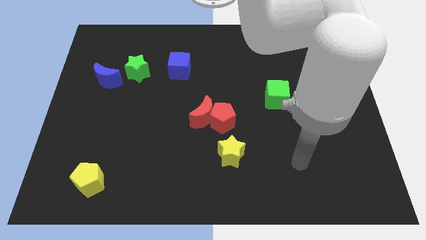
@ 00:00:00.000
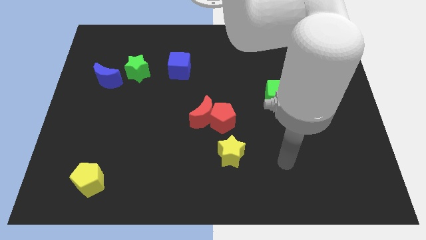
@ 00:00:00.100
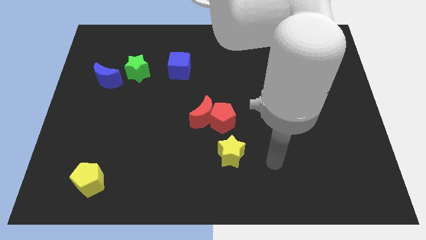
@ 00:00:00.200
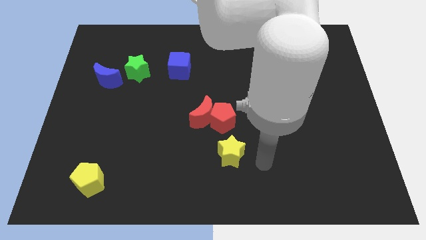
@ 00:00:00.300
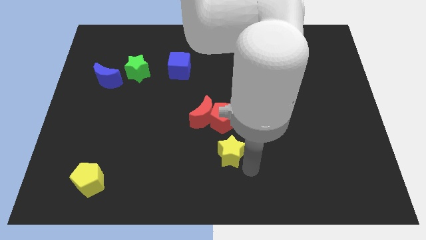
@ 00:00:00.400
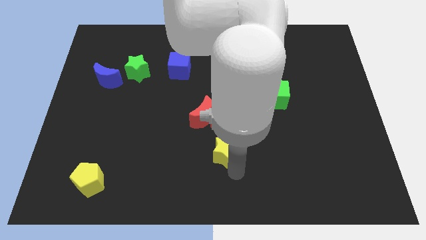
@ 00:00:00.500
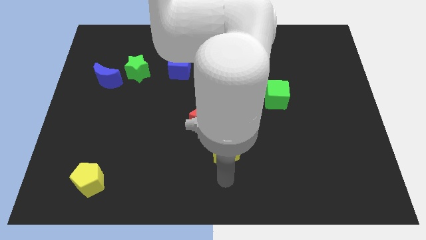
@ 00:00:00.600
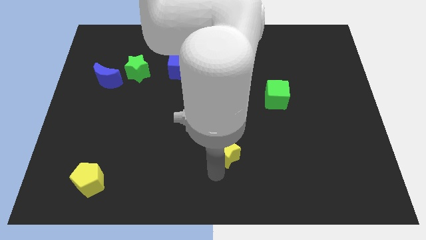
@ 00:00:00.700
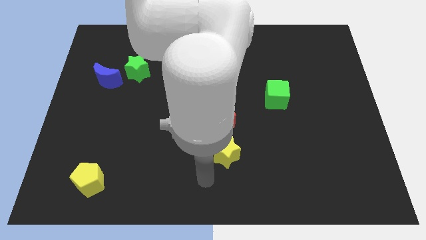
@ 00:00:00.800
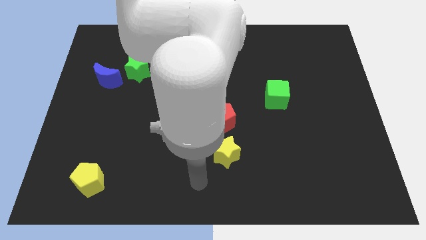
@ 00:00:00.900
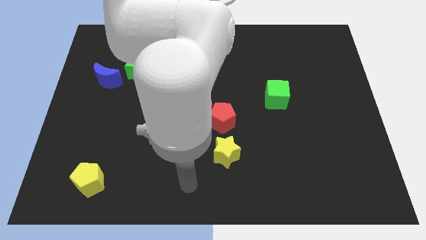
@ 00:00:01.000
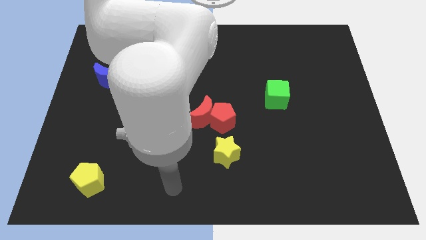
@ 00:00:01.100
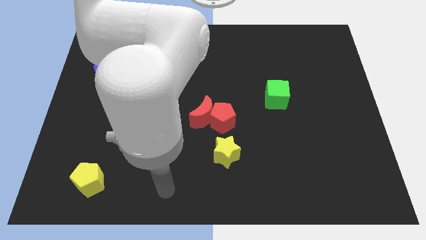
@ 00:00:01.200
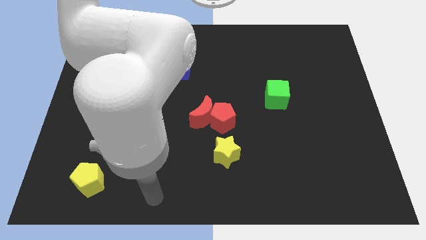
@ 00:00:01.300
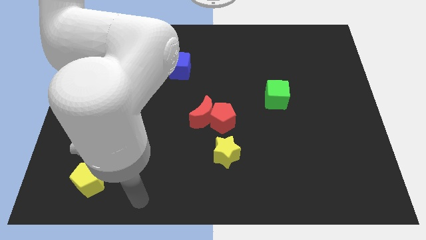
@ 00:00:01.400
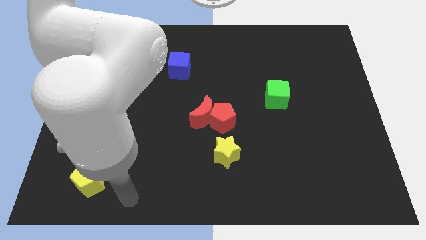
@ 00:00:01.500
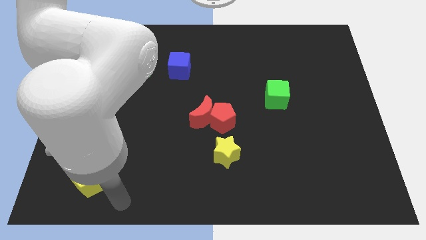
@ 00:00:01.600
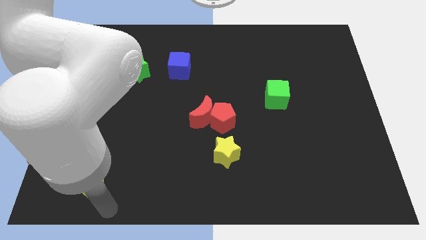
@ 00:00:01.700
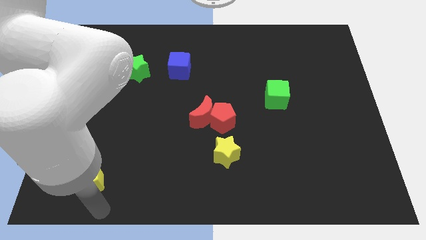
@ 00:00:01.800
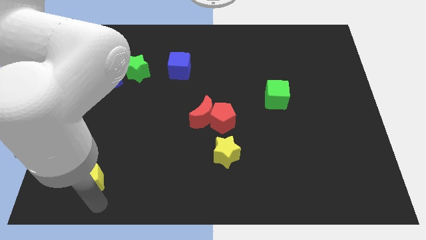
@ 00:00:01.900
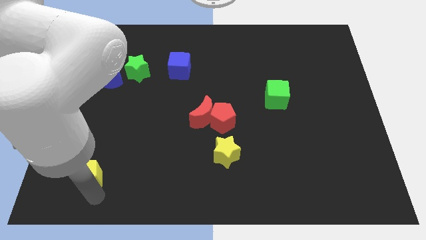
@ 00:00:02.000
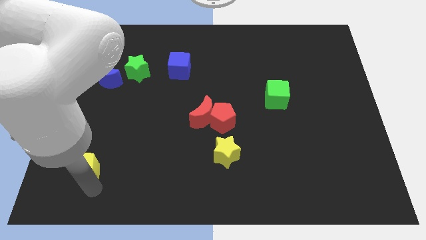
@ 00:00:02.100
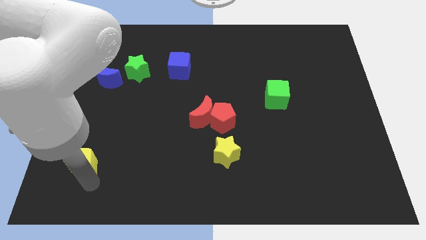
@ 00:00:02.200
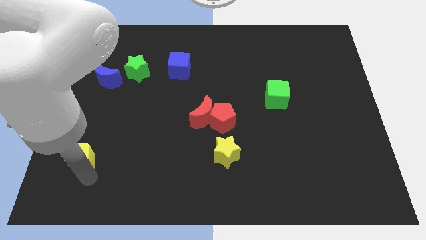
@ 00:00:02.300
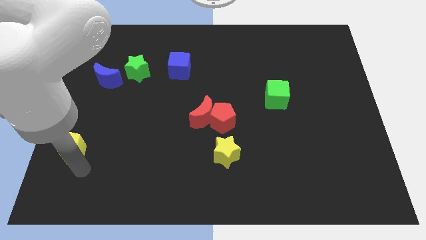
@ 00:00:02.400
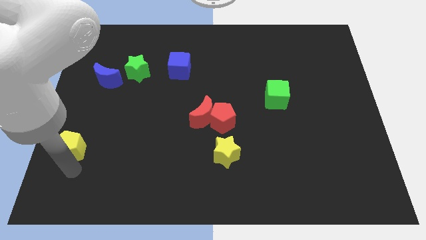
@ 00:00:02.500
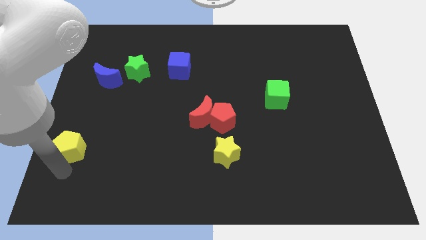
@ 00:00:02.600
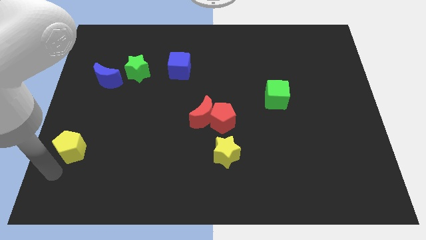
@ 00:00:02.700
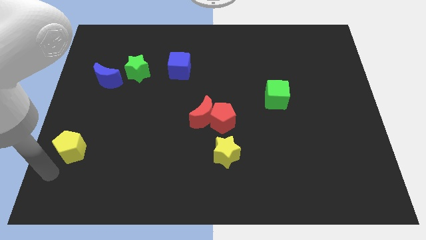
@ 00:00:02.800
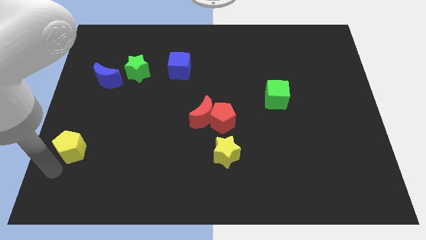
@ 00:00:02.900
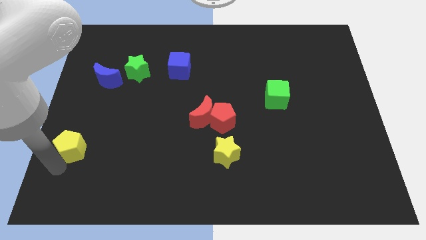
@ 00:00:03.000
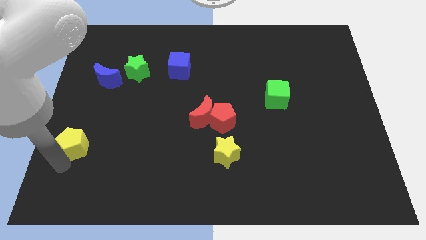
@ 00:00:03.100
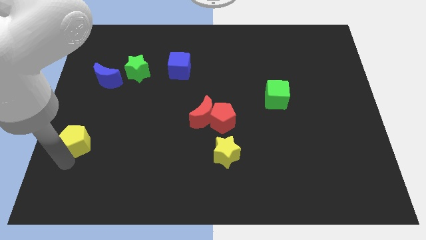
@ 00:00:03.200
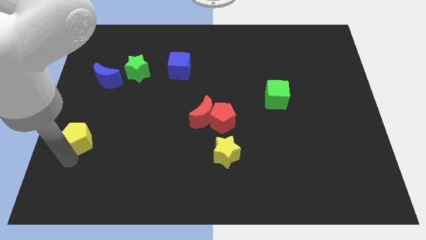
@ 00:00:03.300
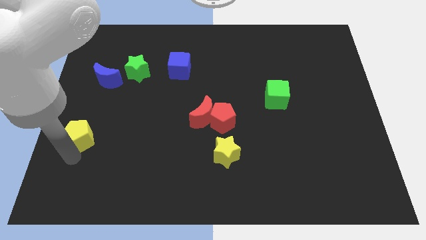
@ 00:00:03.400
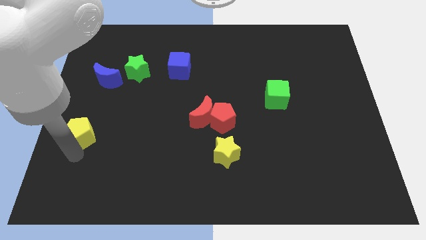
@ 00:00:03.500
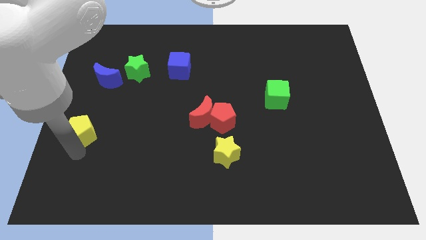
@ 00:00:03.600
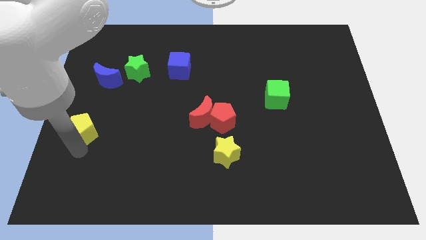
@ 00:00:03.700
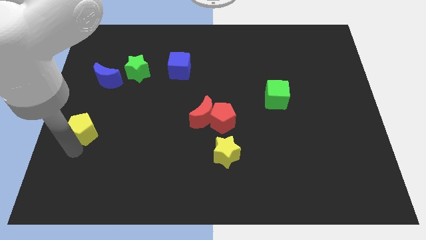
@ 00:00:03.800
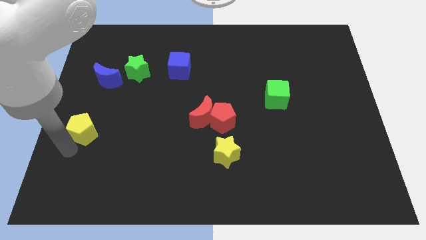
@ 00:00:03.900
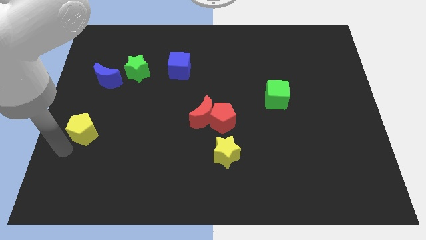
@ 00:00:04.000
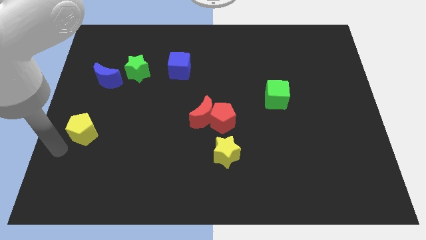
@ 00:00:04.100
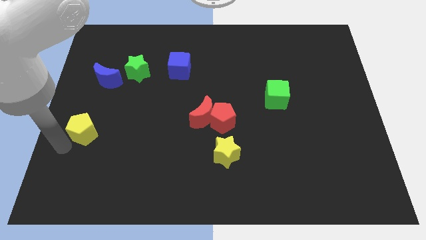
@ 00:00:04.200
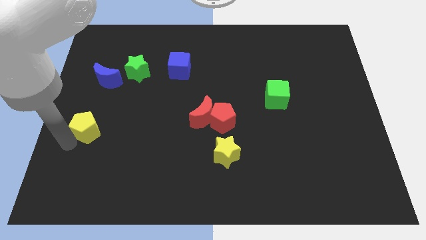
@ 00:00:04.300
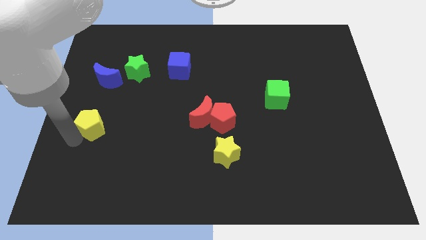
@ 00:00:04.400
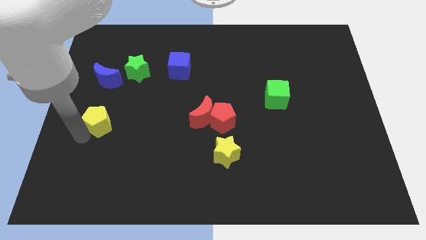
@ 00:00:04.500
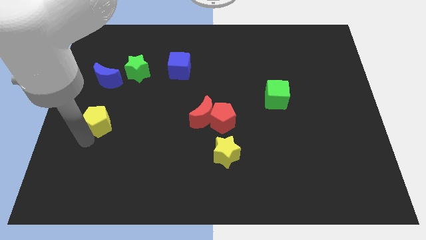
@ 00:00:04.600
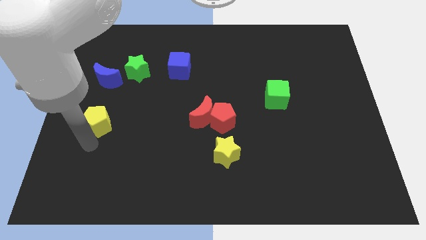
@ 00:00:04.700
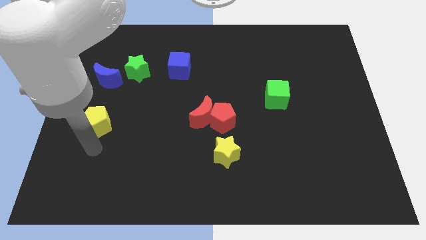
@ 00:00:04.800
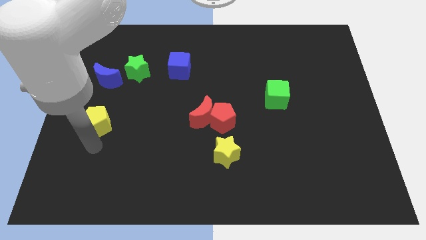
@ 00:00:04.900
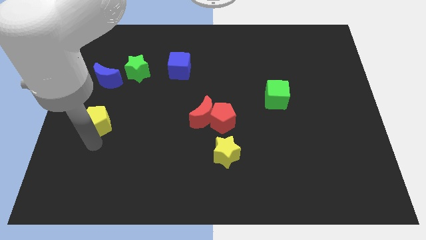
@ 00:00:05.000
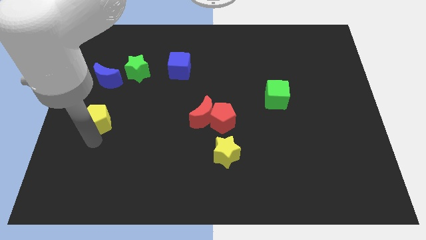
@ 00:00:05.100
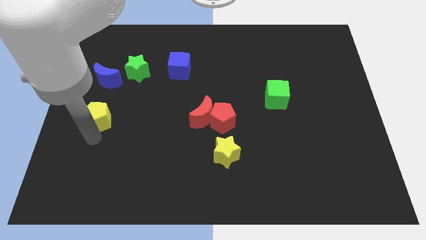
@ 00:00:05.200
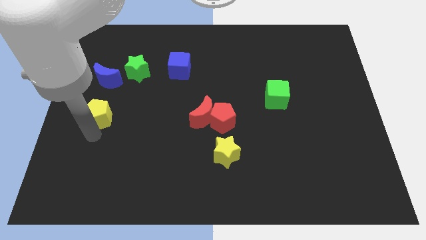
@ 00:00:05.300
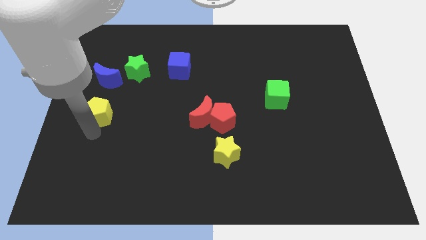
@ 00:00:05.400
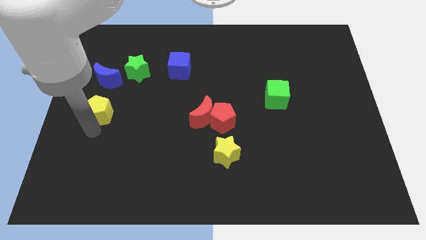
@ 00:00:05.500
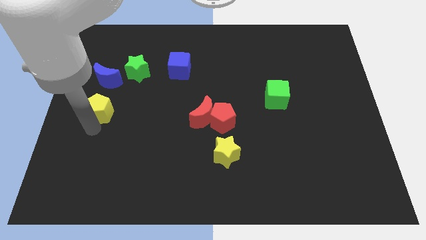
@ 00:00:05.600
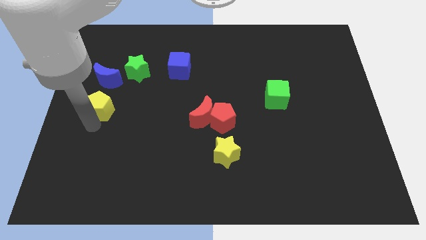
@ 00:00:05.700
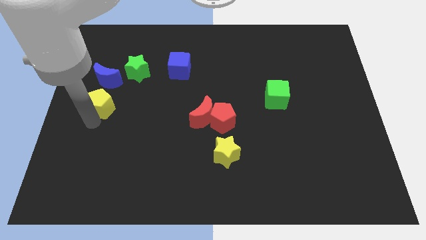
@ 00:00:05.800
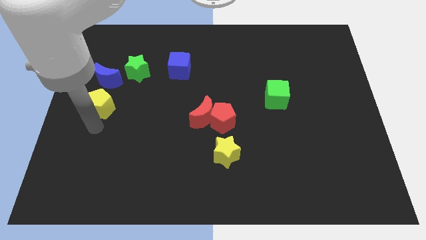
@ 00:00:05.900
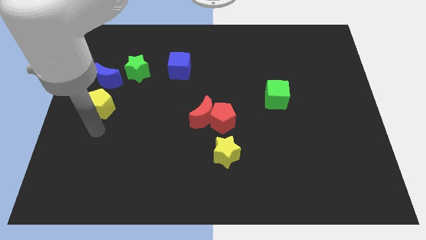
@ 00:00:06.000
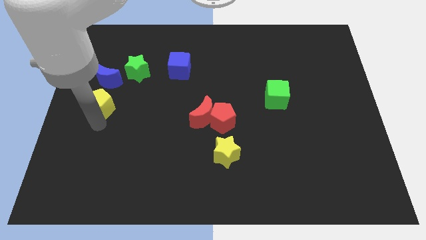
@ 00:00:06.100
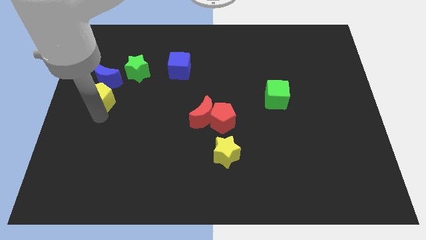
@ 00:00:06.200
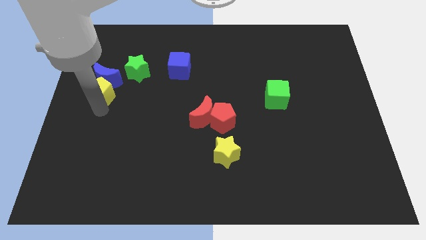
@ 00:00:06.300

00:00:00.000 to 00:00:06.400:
put the yellow pentagon to the blue moon

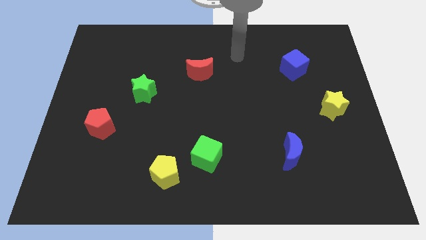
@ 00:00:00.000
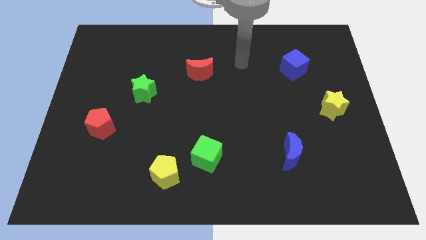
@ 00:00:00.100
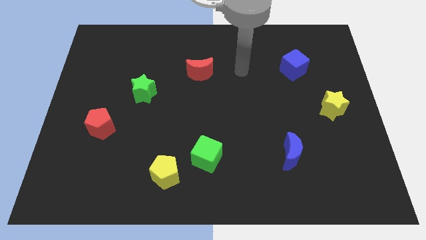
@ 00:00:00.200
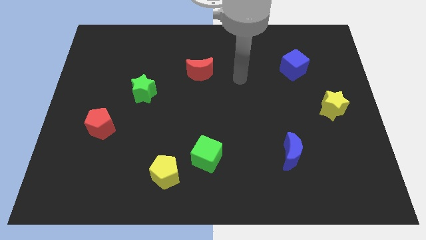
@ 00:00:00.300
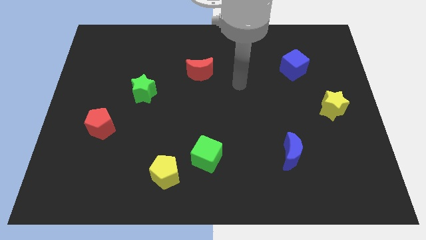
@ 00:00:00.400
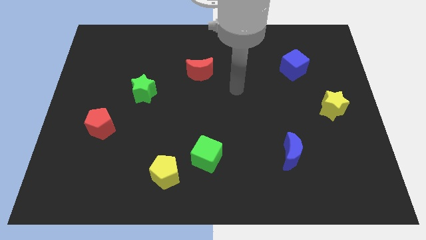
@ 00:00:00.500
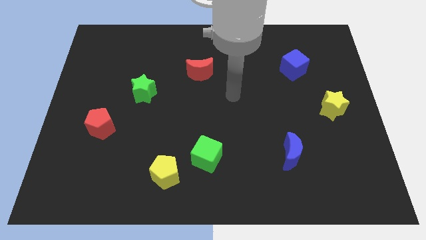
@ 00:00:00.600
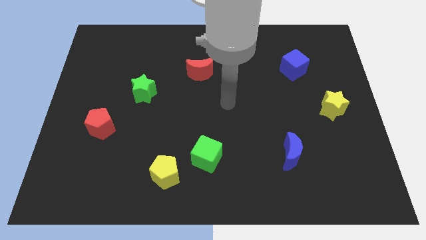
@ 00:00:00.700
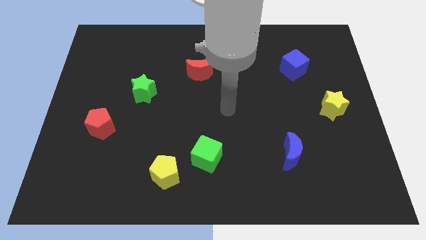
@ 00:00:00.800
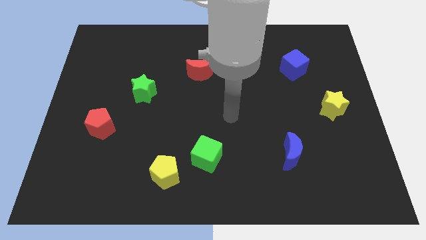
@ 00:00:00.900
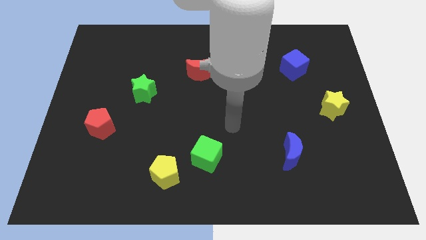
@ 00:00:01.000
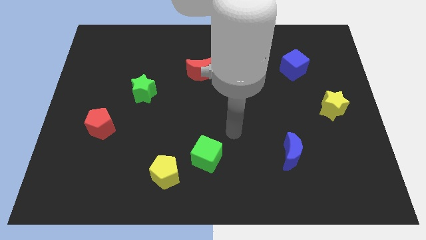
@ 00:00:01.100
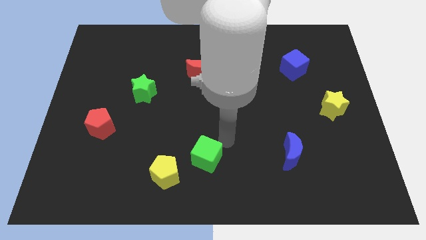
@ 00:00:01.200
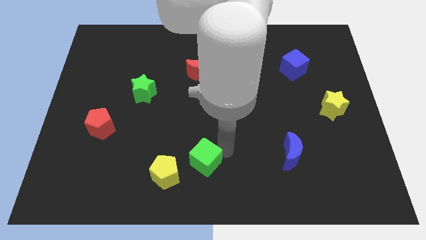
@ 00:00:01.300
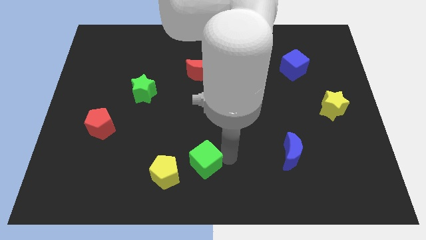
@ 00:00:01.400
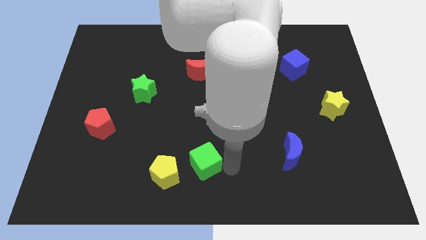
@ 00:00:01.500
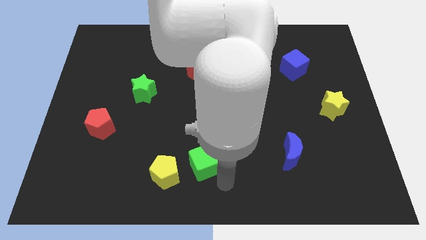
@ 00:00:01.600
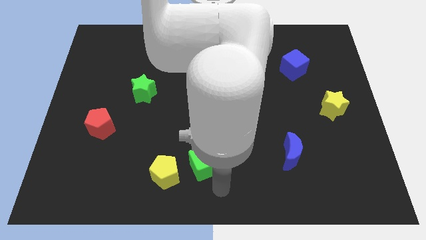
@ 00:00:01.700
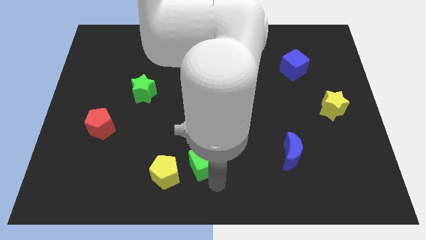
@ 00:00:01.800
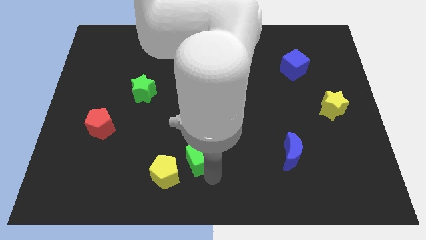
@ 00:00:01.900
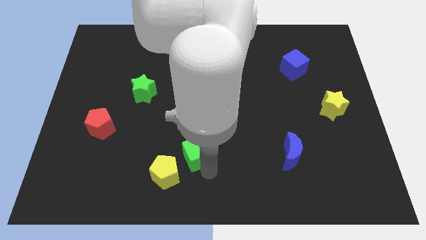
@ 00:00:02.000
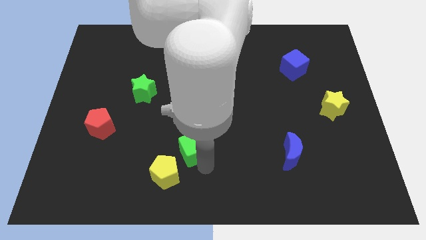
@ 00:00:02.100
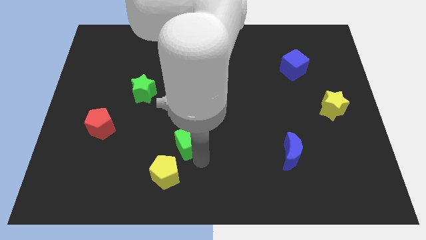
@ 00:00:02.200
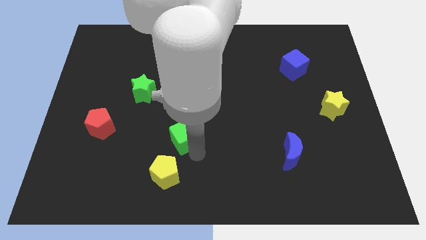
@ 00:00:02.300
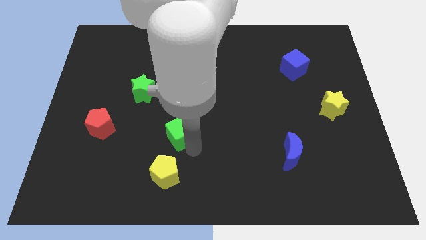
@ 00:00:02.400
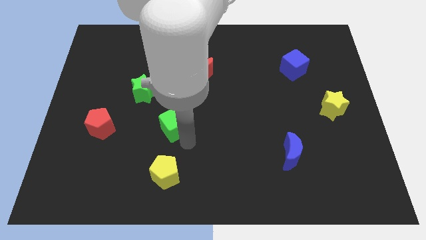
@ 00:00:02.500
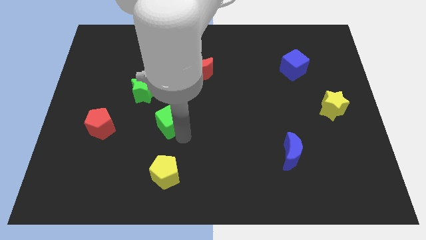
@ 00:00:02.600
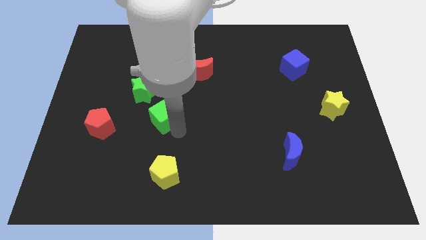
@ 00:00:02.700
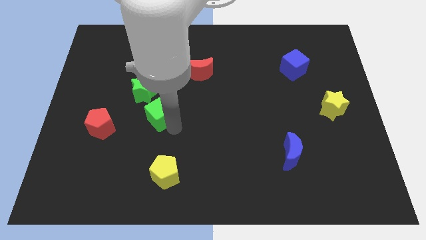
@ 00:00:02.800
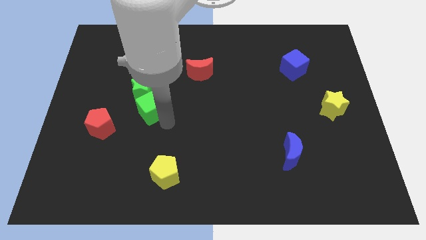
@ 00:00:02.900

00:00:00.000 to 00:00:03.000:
move the green cube to the green star
